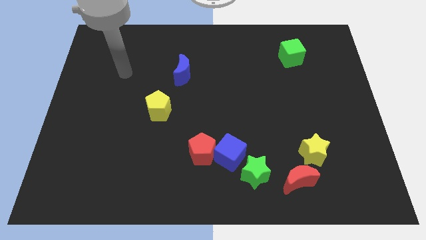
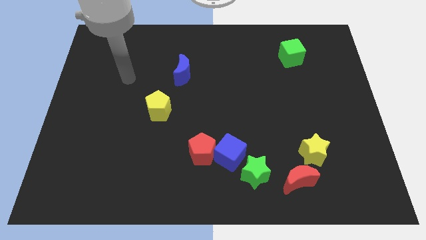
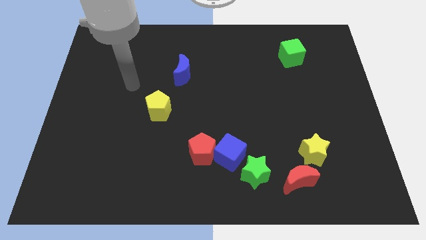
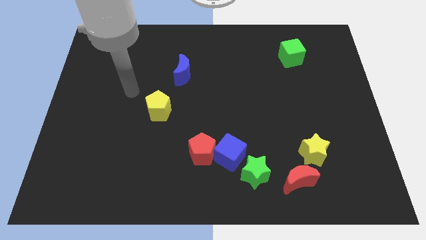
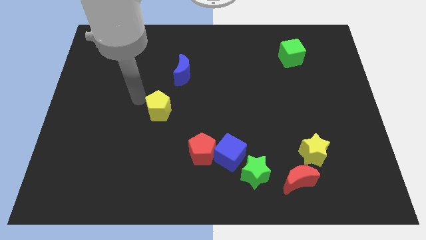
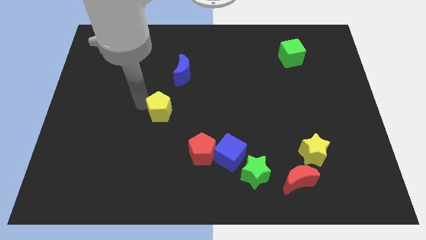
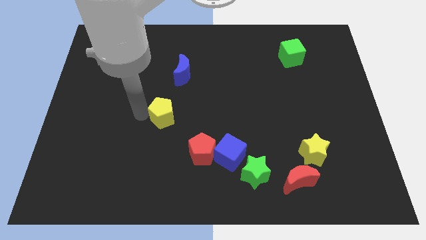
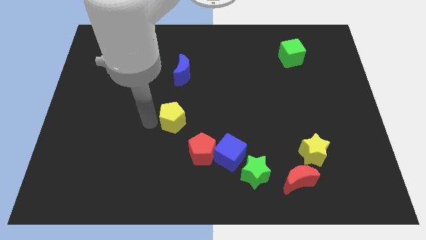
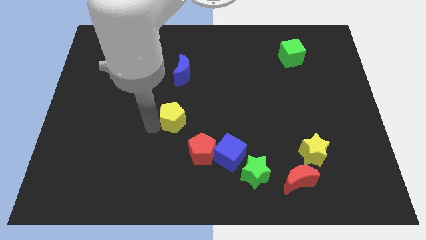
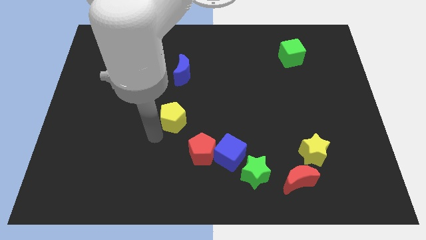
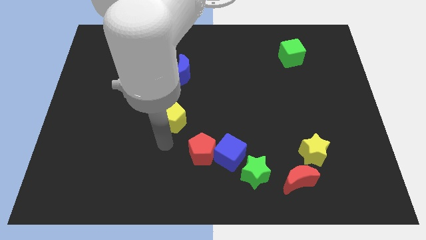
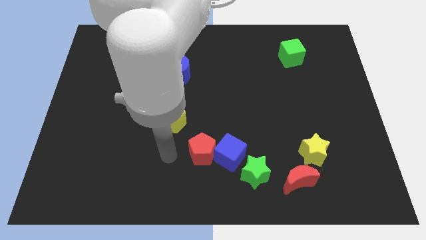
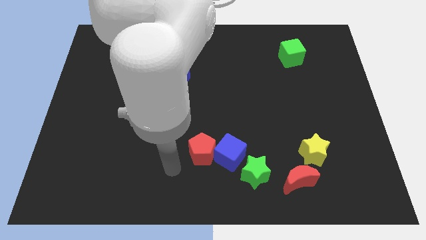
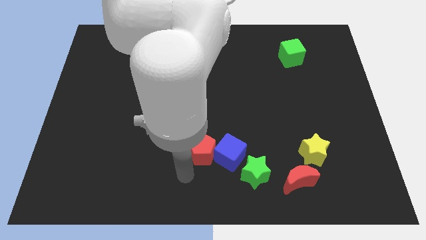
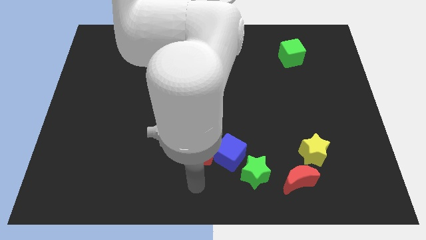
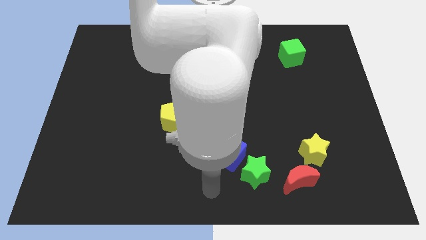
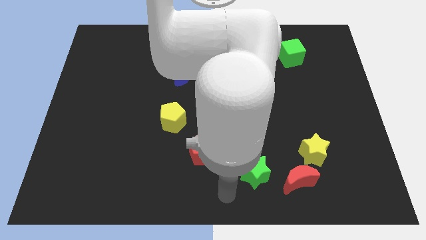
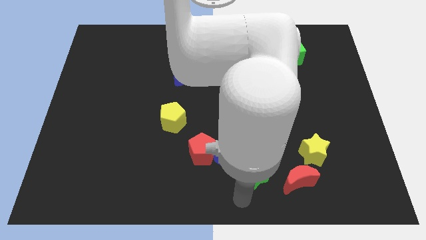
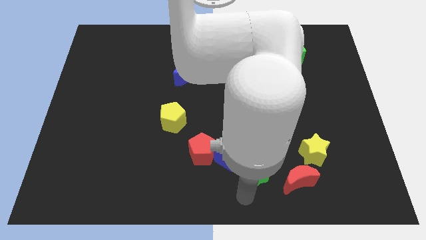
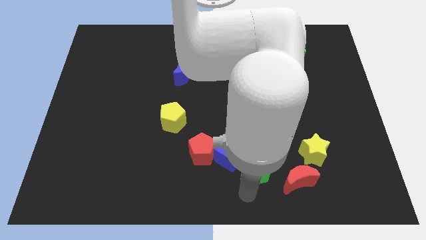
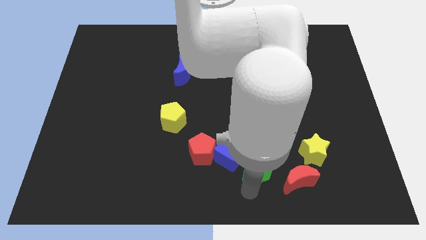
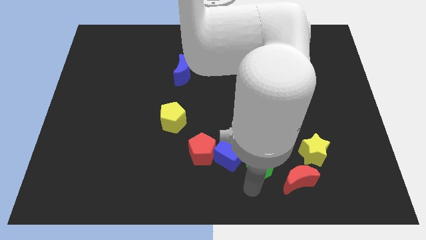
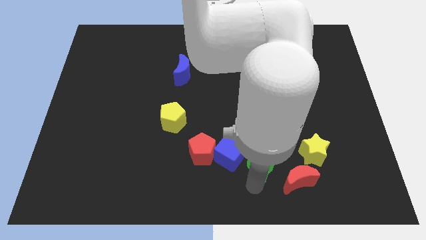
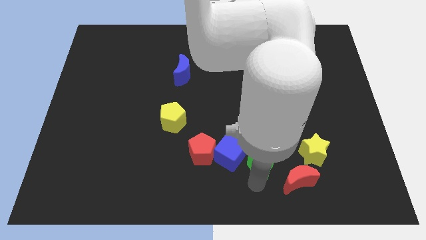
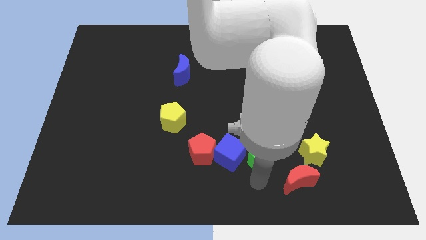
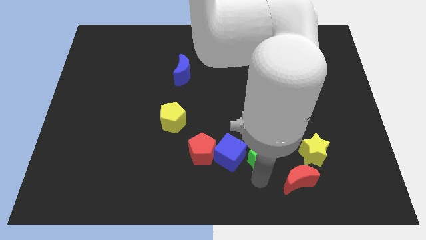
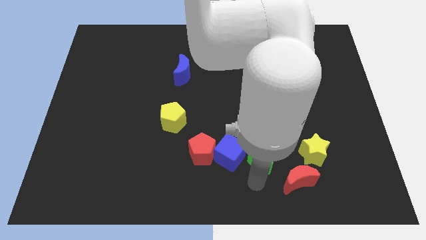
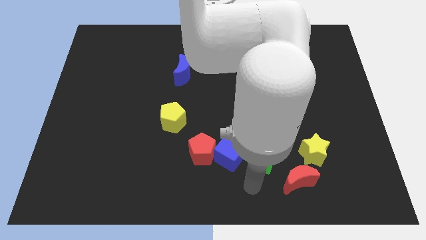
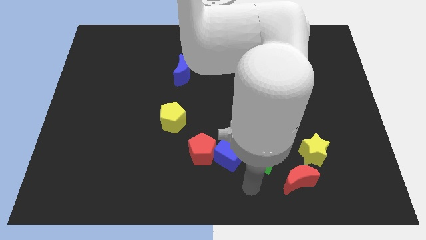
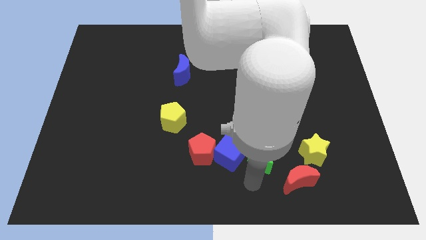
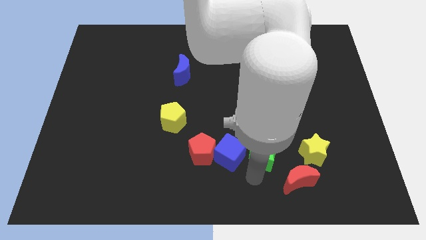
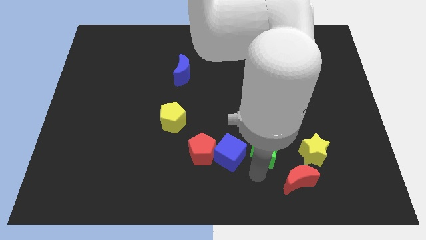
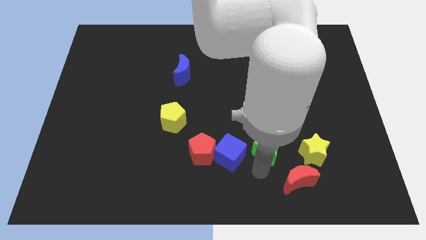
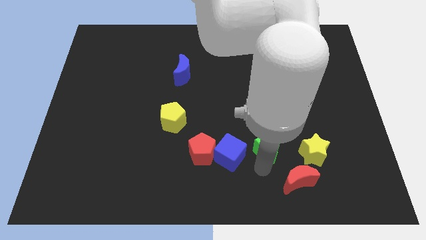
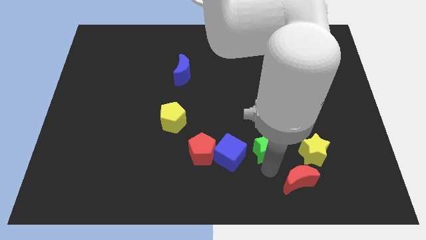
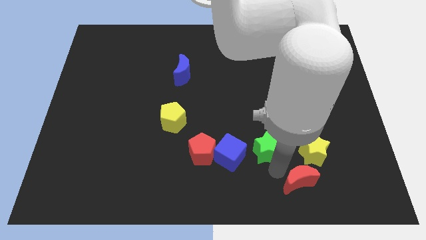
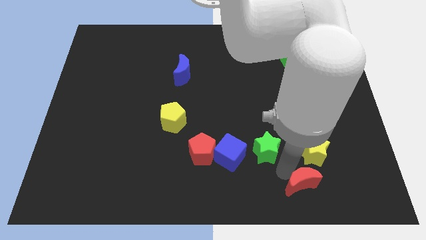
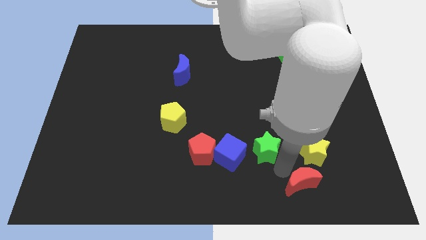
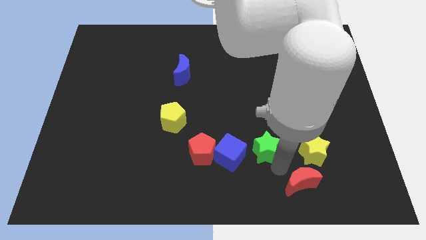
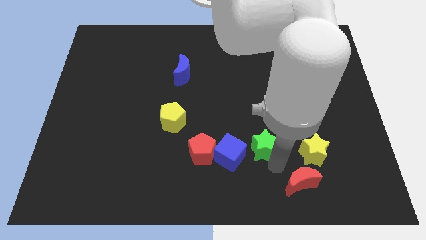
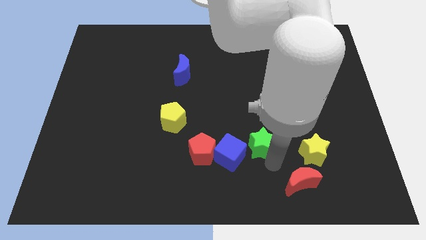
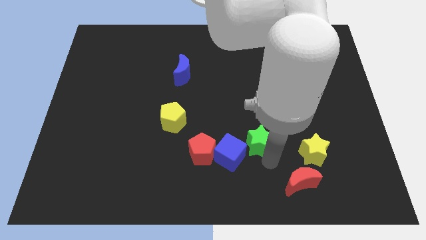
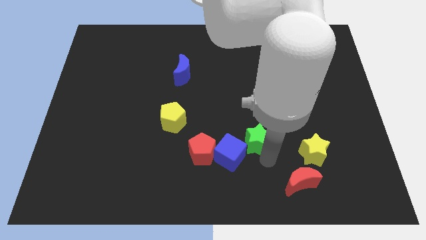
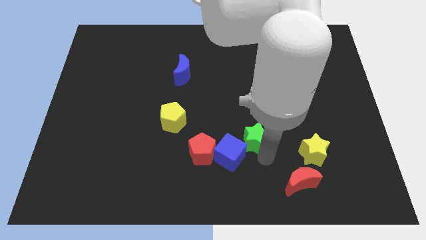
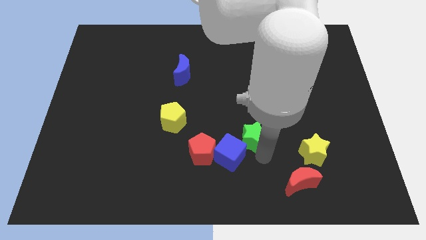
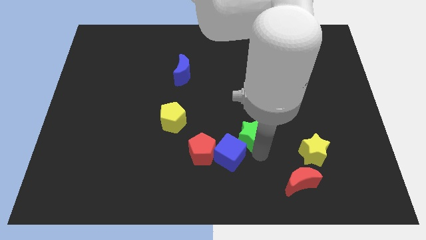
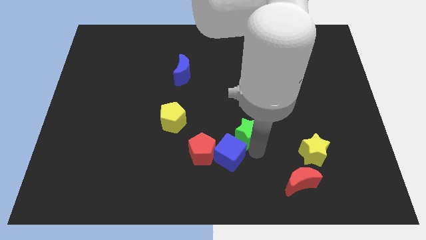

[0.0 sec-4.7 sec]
push the green star to the middle

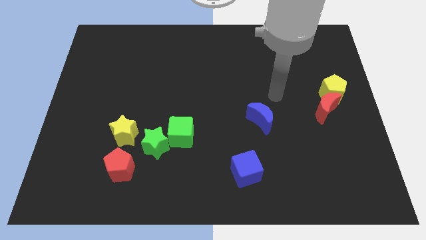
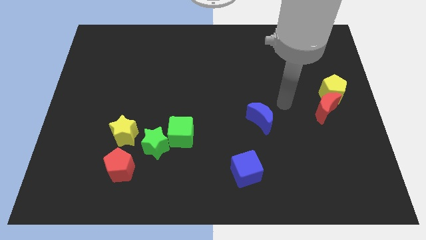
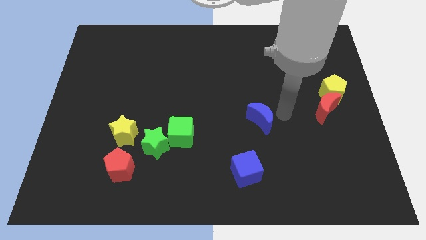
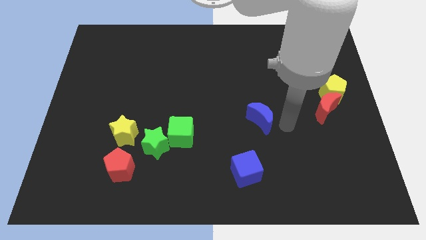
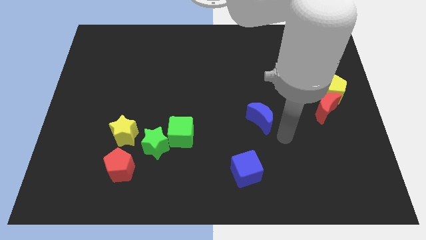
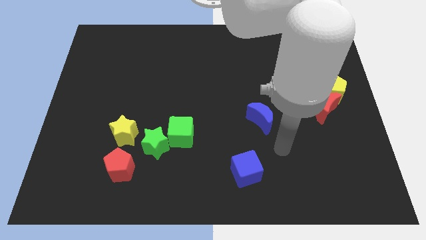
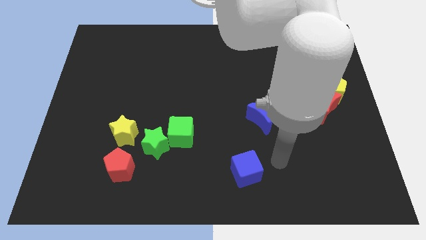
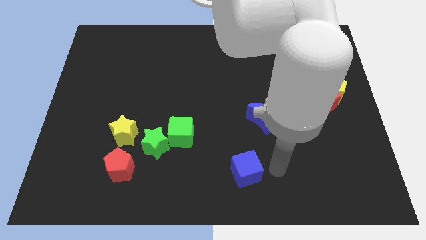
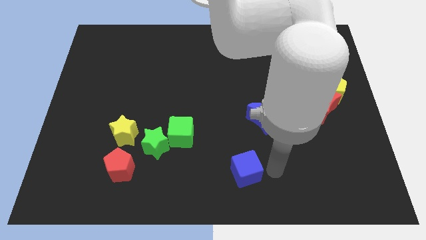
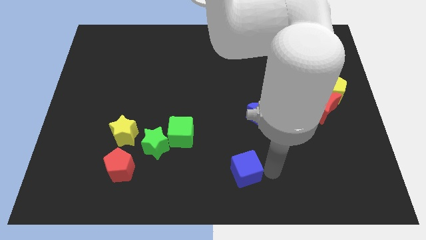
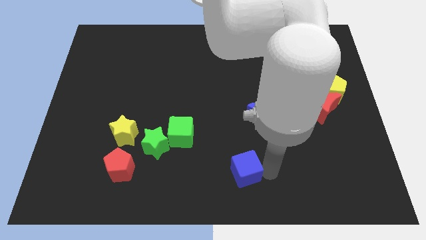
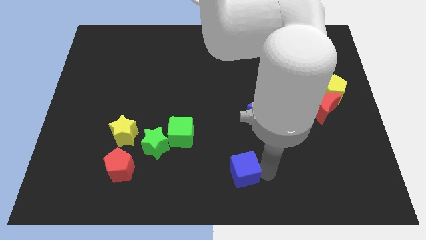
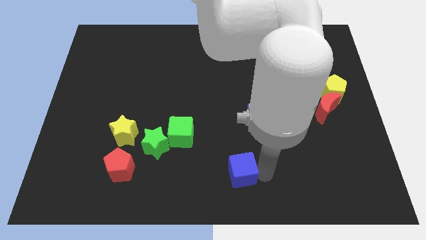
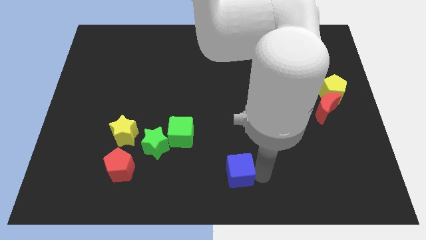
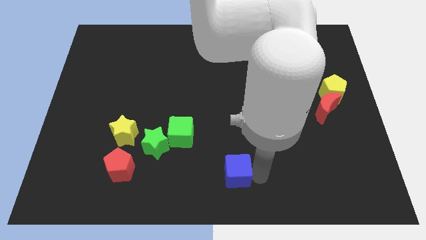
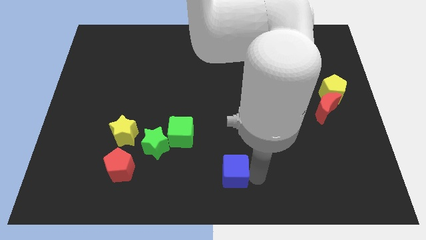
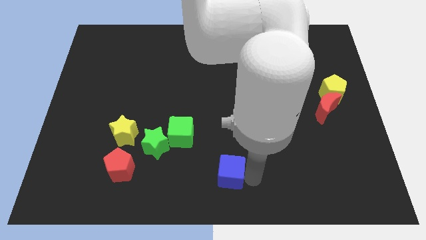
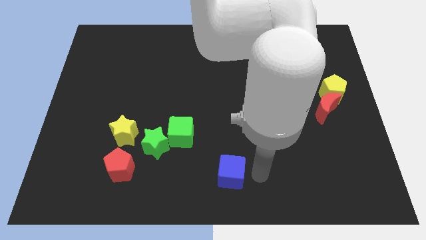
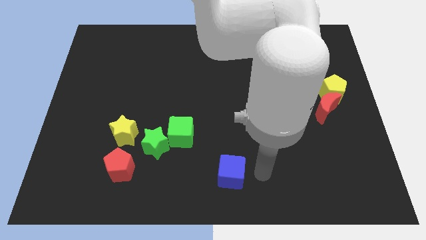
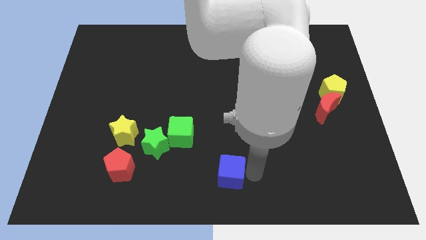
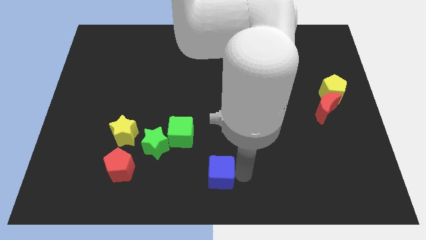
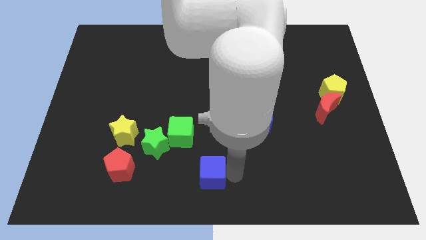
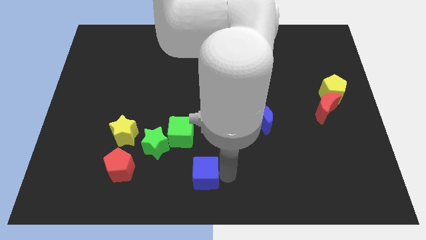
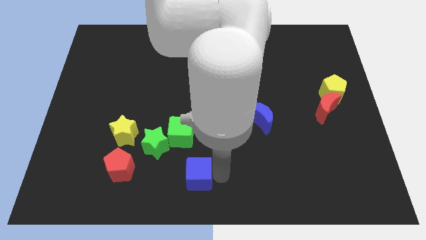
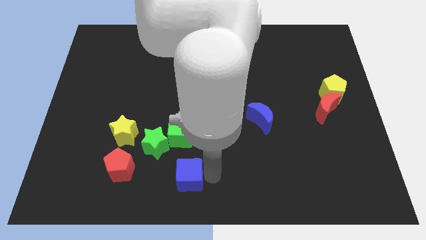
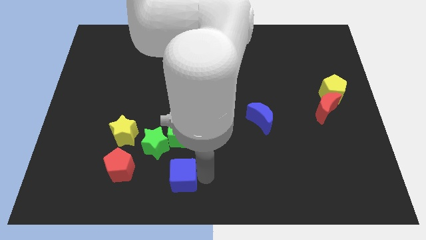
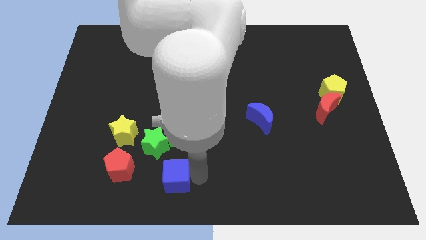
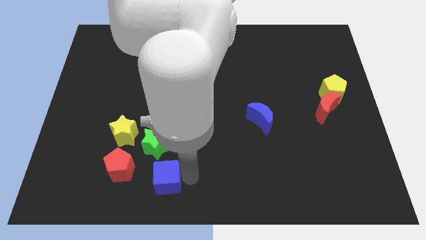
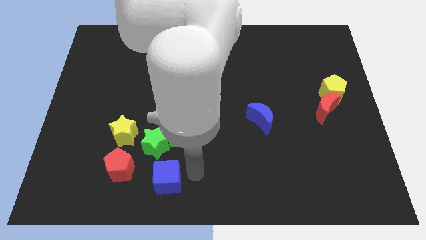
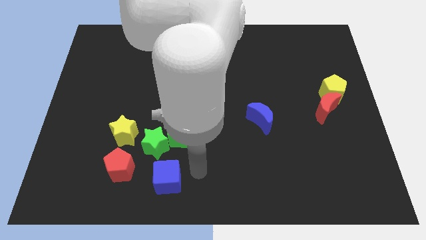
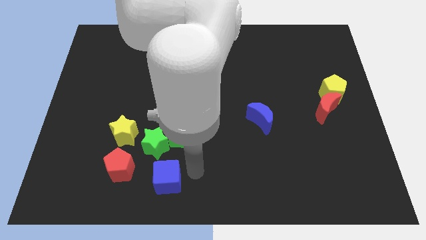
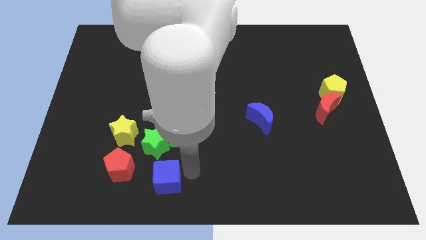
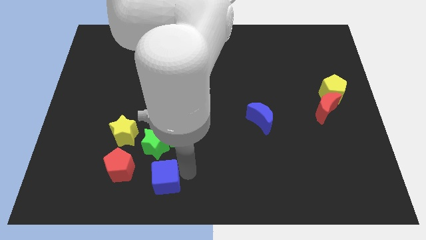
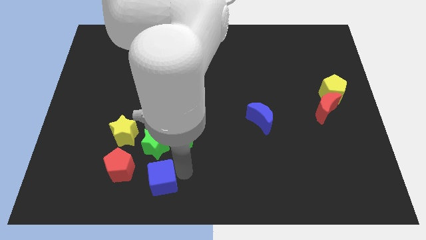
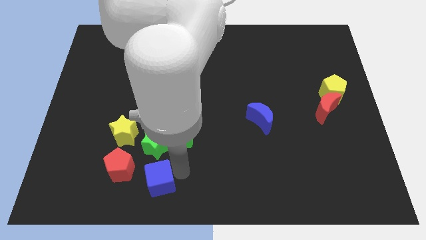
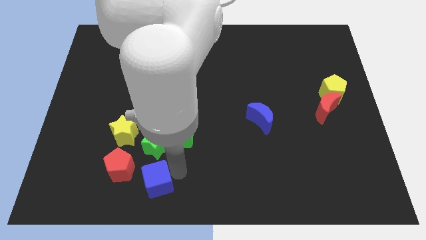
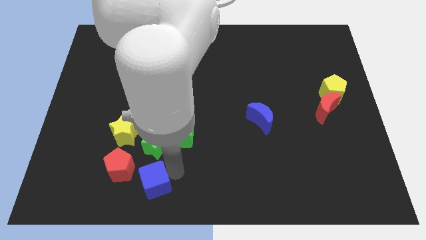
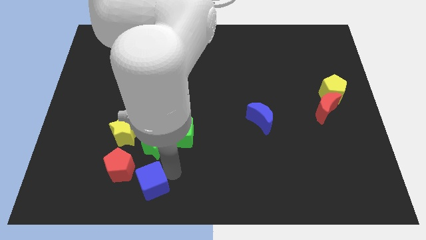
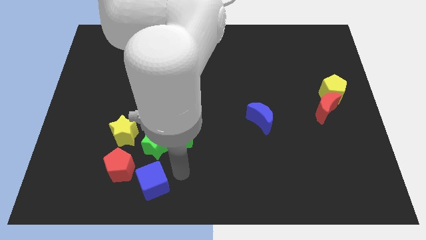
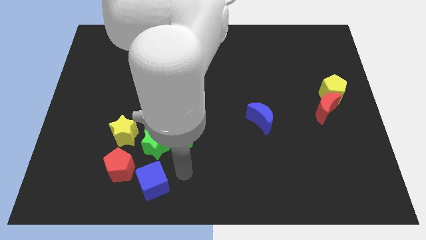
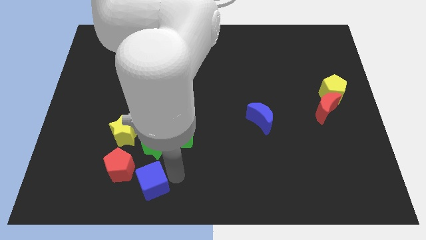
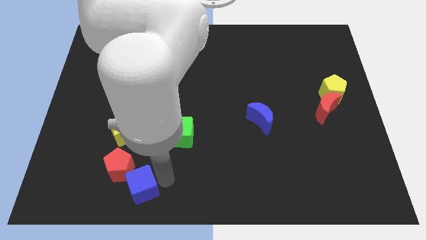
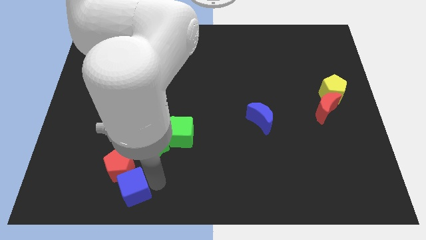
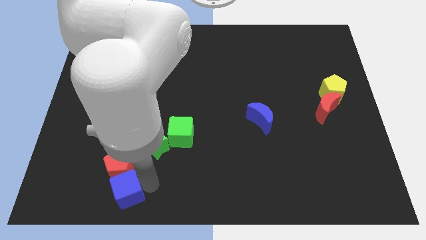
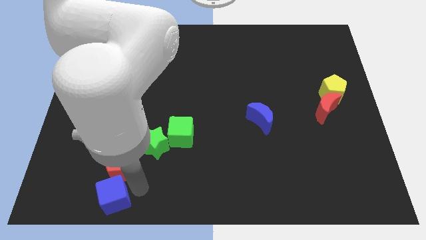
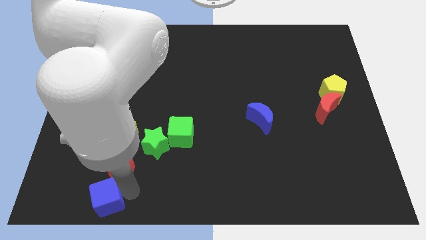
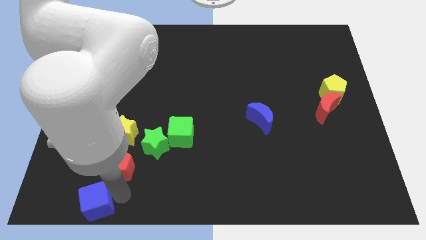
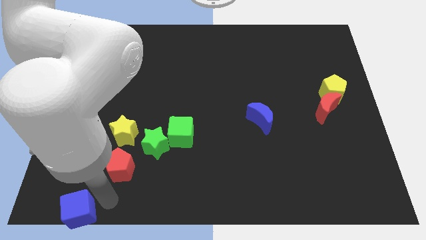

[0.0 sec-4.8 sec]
push the blue cube to the bottom left corner
